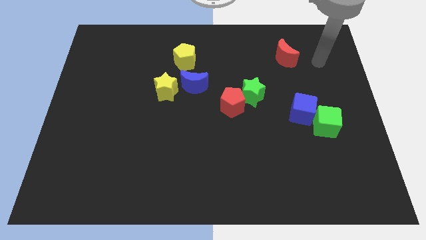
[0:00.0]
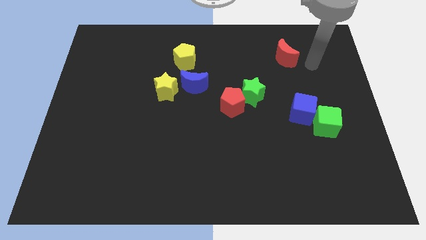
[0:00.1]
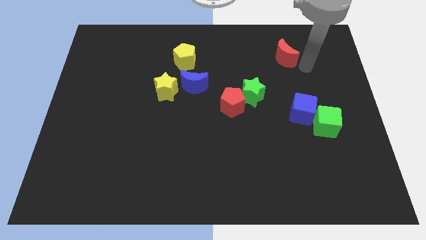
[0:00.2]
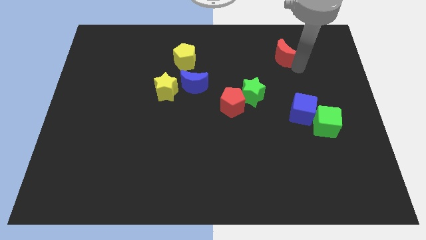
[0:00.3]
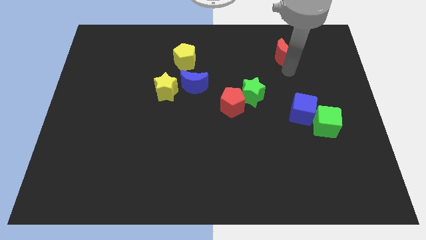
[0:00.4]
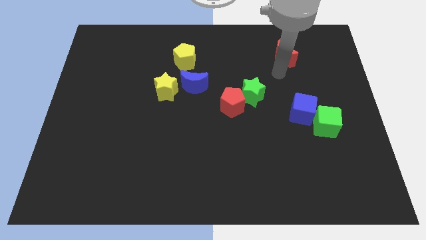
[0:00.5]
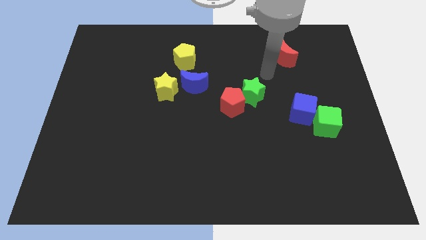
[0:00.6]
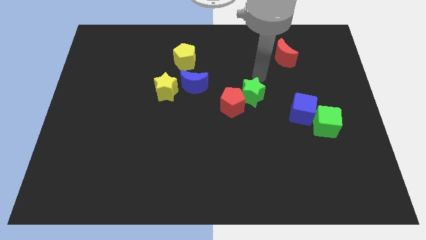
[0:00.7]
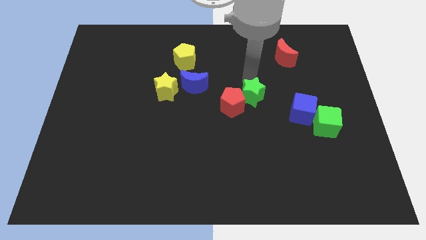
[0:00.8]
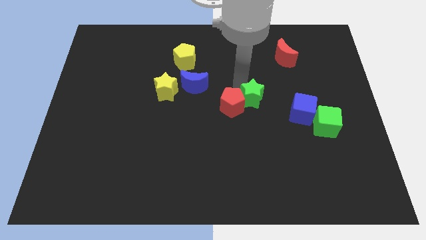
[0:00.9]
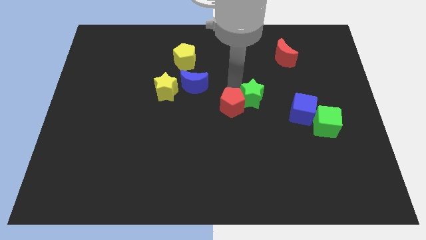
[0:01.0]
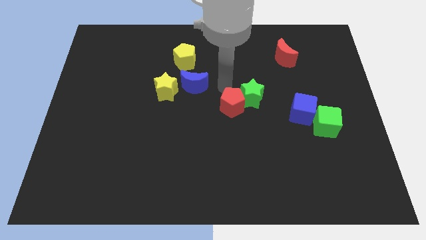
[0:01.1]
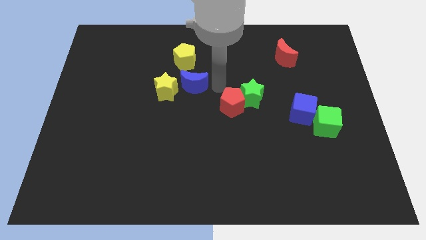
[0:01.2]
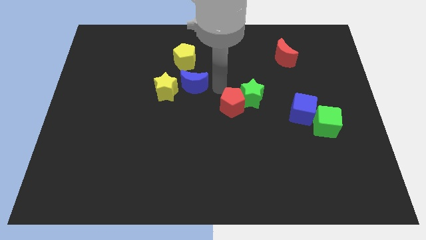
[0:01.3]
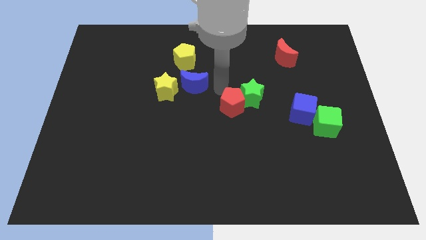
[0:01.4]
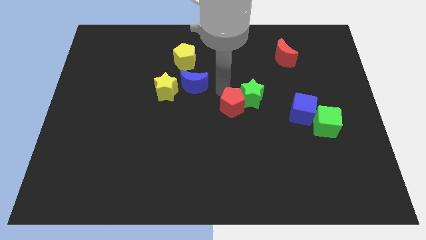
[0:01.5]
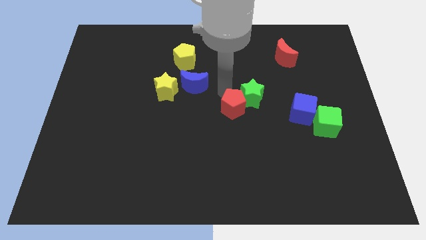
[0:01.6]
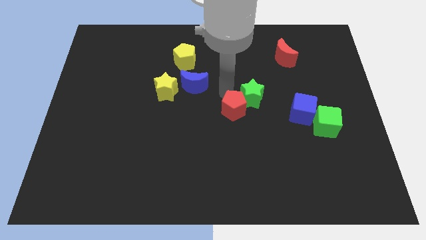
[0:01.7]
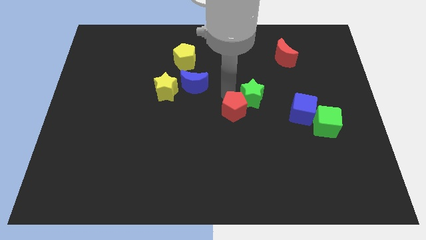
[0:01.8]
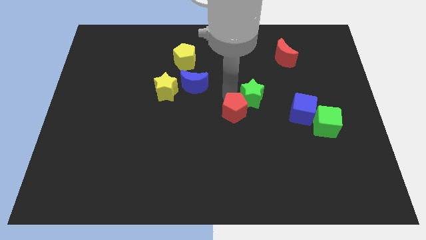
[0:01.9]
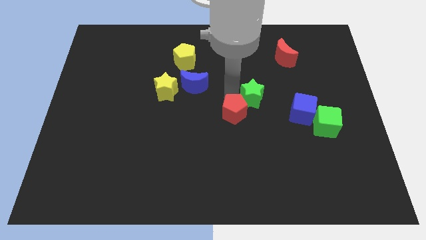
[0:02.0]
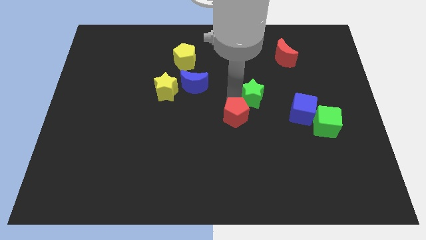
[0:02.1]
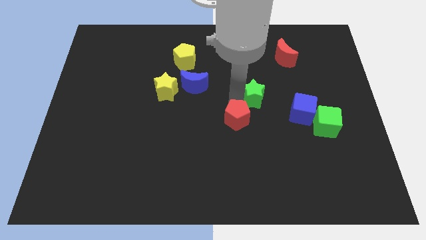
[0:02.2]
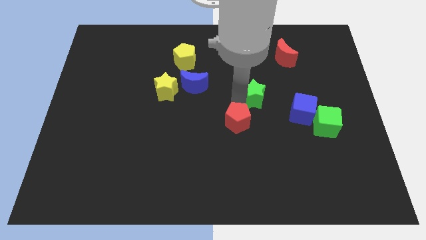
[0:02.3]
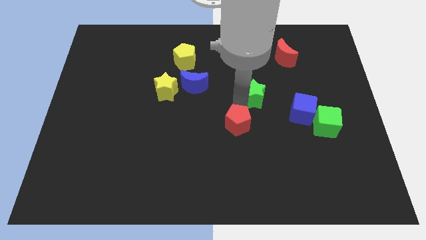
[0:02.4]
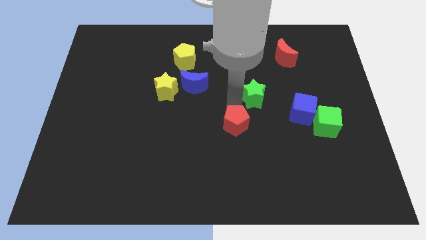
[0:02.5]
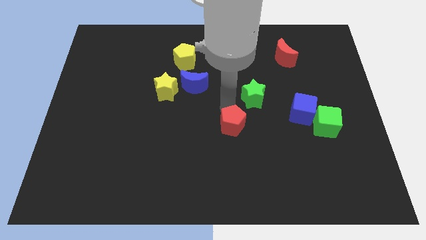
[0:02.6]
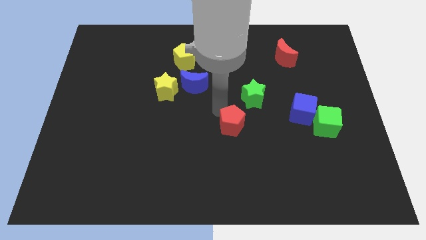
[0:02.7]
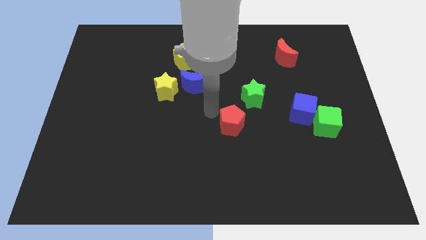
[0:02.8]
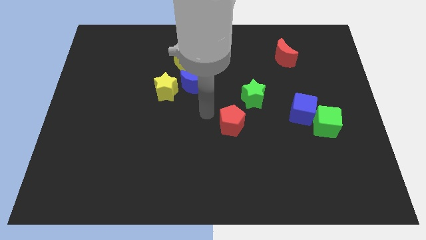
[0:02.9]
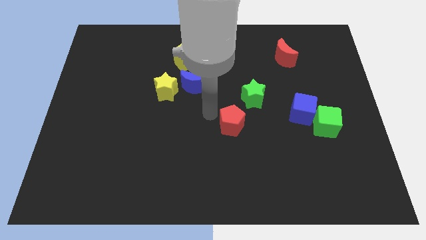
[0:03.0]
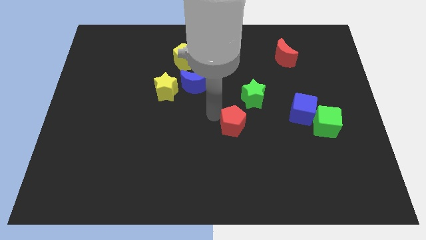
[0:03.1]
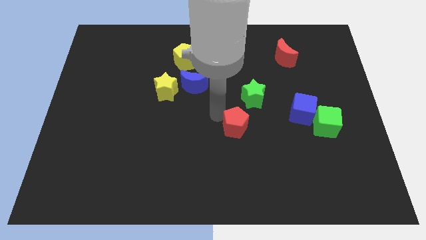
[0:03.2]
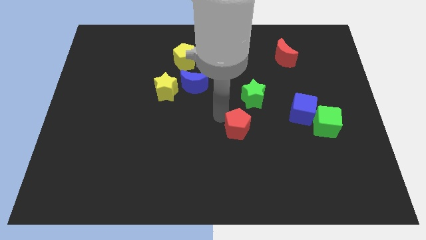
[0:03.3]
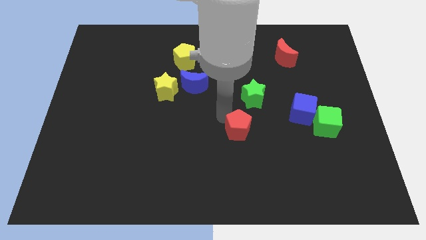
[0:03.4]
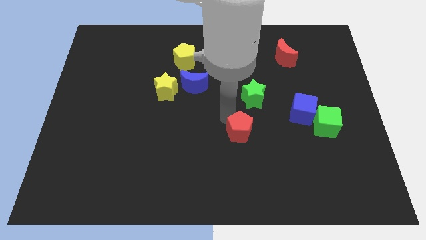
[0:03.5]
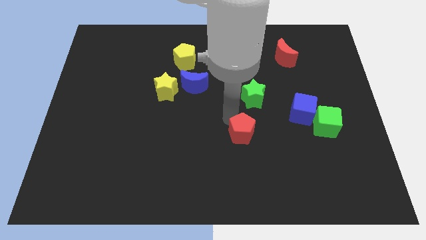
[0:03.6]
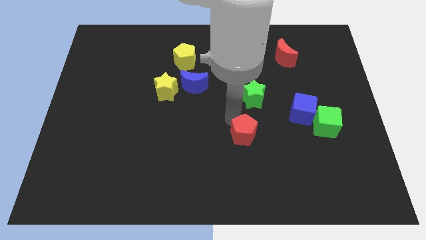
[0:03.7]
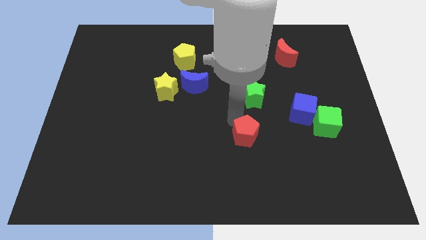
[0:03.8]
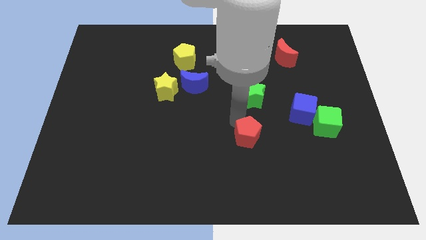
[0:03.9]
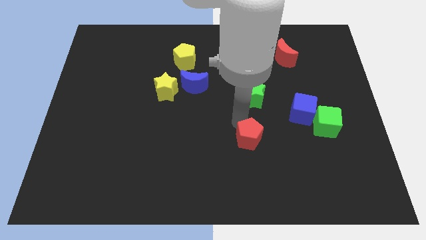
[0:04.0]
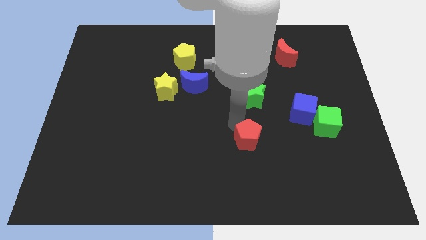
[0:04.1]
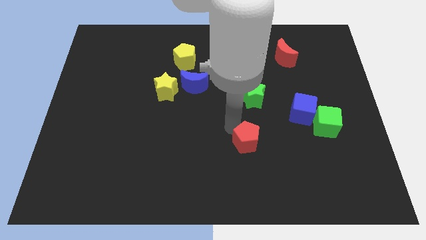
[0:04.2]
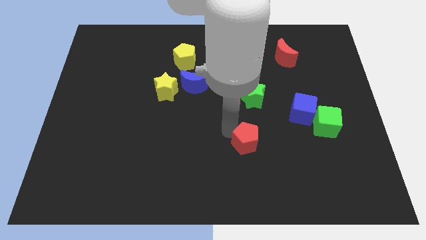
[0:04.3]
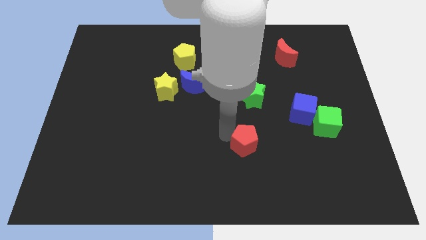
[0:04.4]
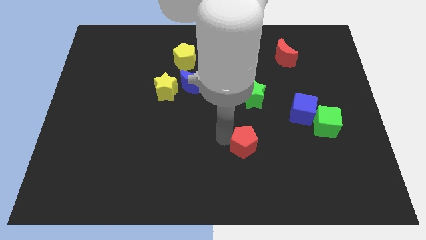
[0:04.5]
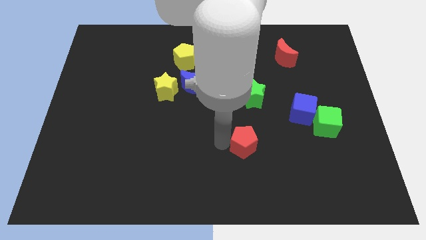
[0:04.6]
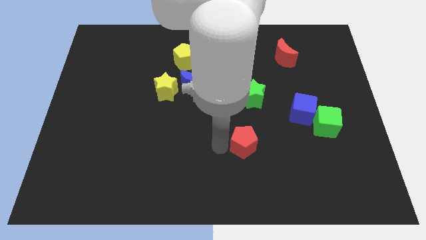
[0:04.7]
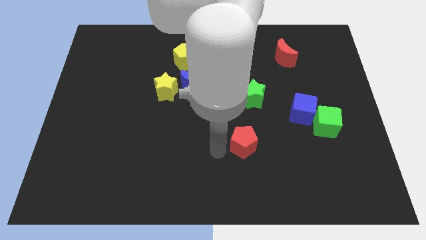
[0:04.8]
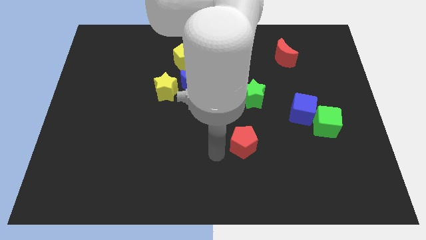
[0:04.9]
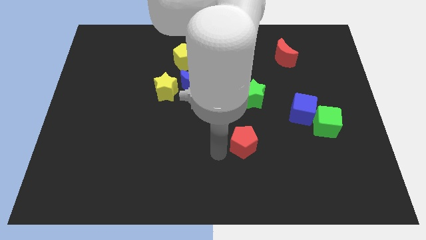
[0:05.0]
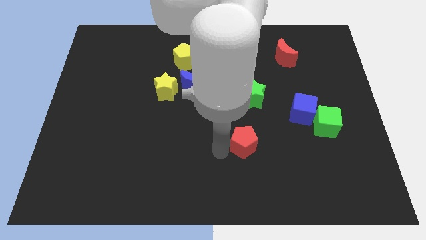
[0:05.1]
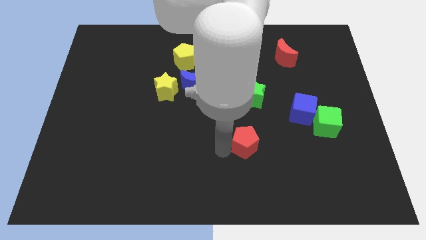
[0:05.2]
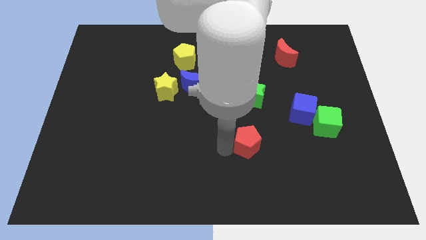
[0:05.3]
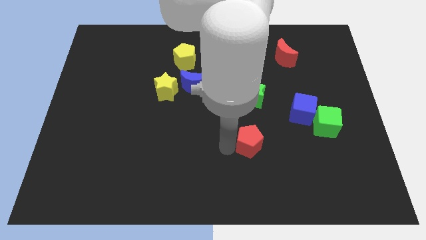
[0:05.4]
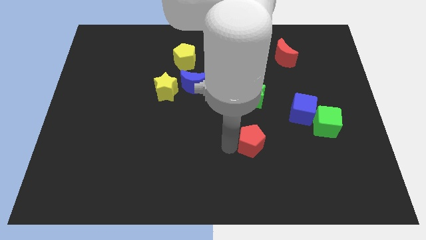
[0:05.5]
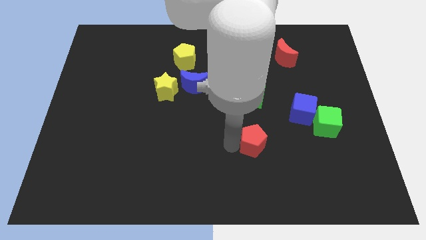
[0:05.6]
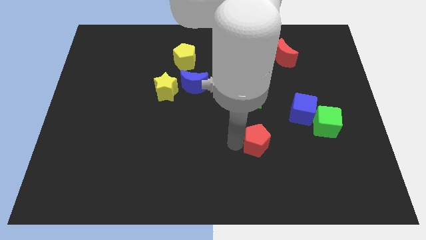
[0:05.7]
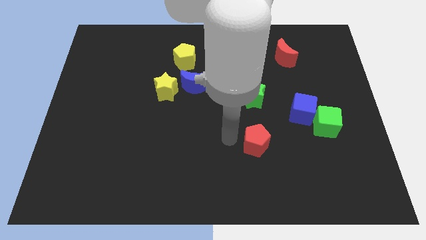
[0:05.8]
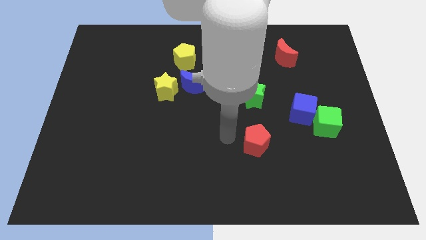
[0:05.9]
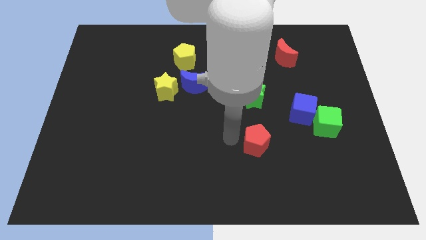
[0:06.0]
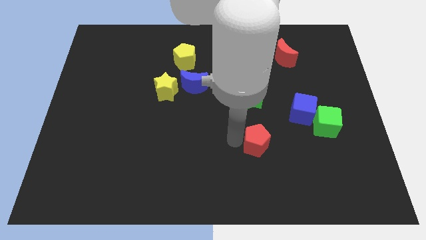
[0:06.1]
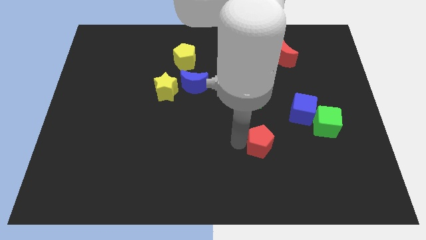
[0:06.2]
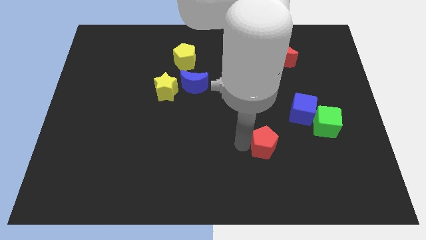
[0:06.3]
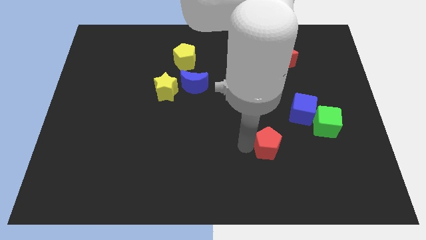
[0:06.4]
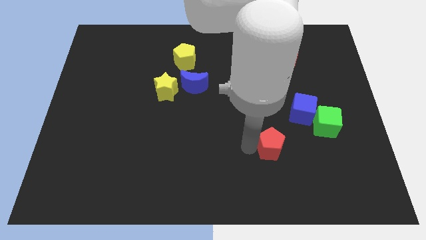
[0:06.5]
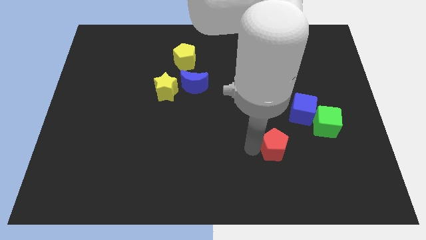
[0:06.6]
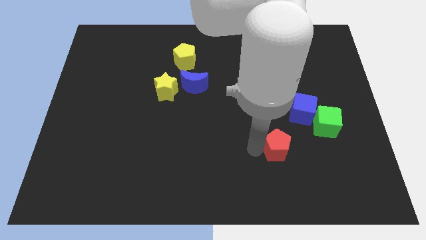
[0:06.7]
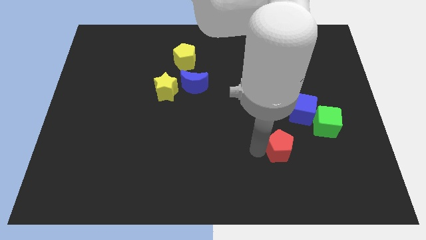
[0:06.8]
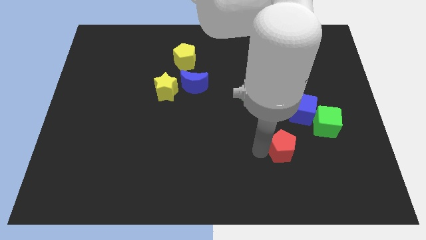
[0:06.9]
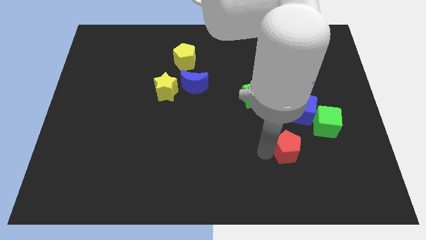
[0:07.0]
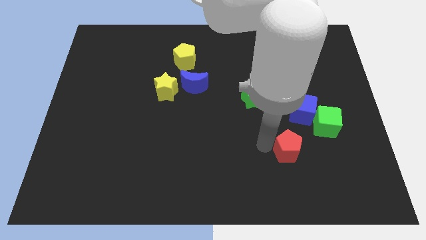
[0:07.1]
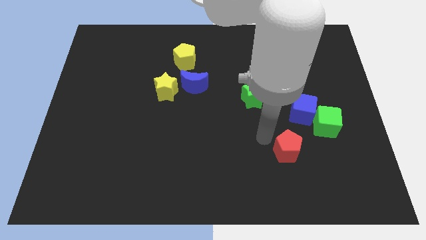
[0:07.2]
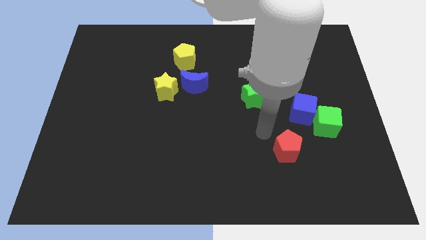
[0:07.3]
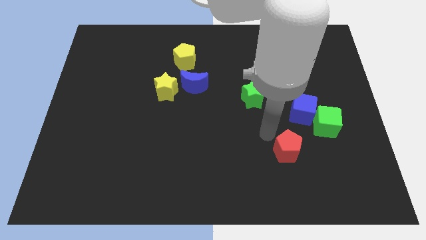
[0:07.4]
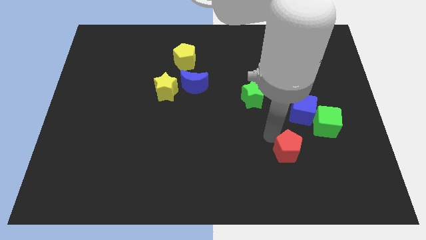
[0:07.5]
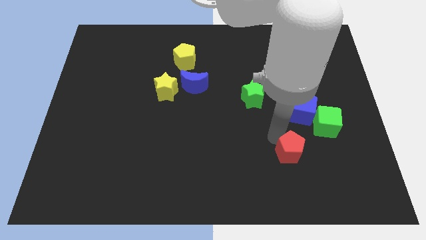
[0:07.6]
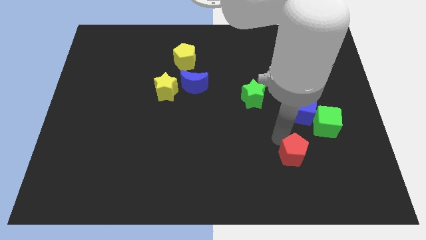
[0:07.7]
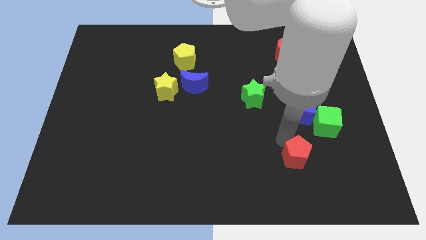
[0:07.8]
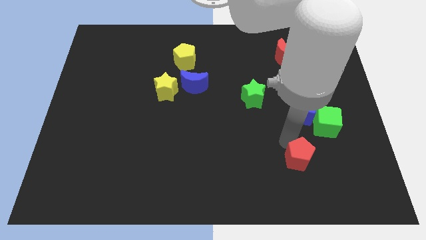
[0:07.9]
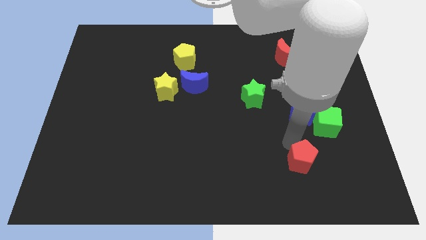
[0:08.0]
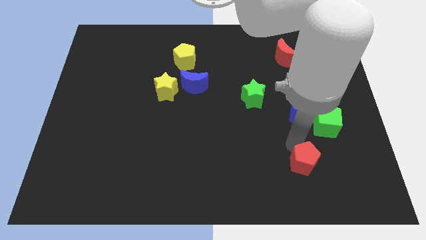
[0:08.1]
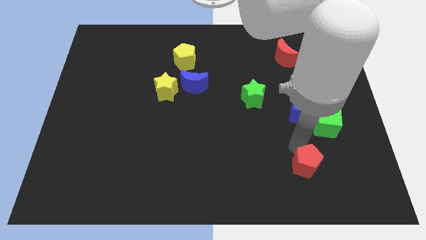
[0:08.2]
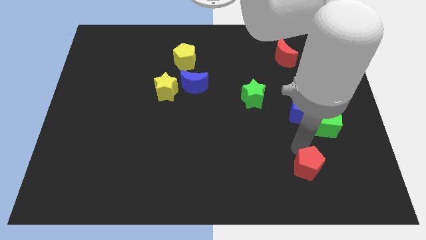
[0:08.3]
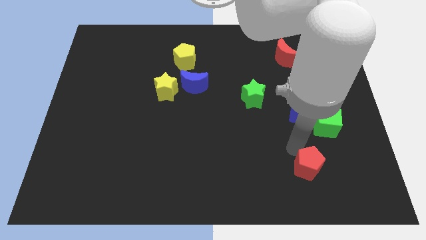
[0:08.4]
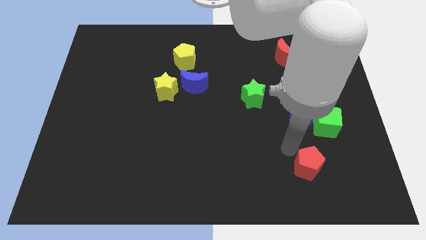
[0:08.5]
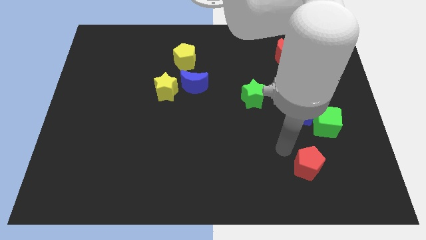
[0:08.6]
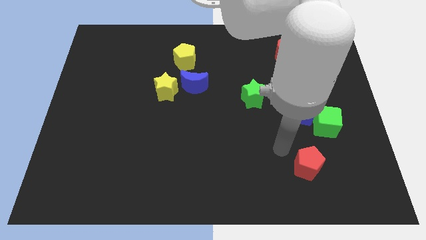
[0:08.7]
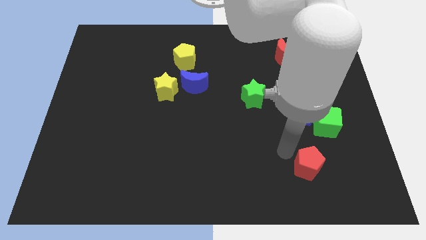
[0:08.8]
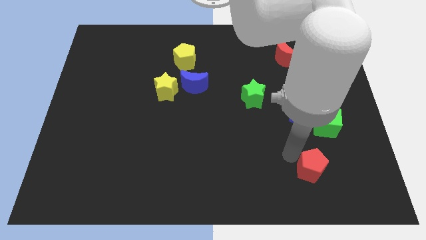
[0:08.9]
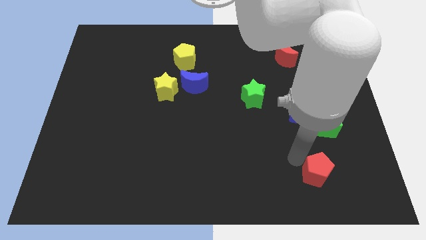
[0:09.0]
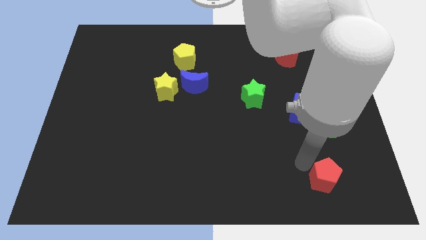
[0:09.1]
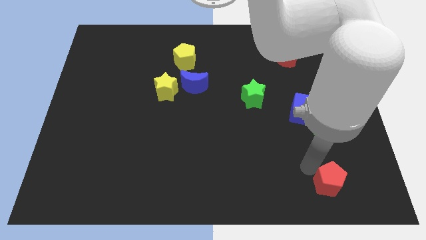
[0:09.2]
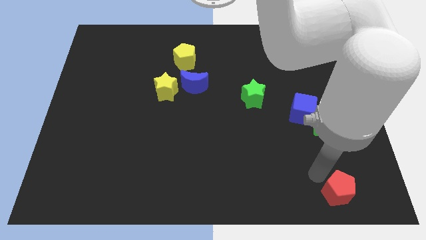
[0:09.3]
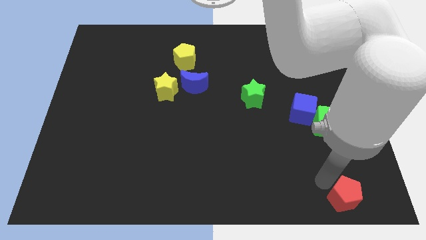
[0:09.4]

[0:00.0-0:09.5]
slide the red pentagon to the bottom right corner
